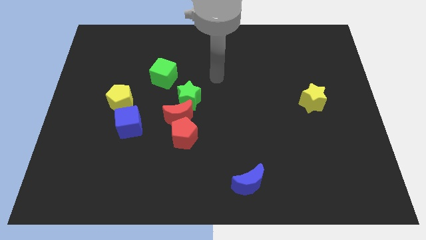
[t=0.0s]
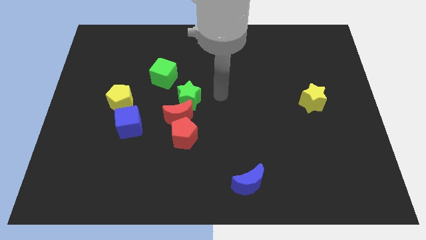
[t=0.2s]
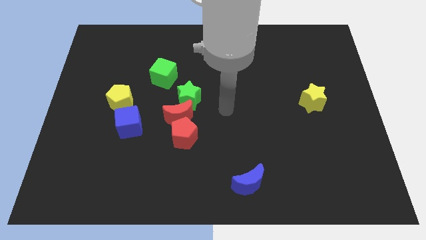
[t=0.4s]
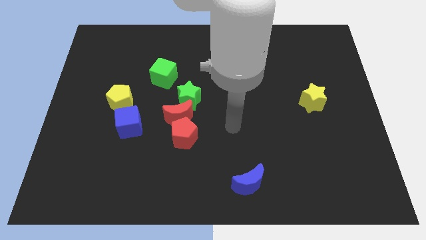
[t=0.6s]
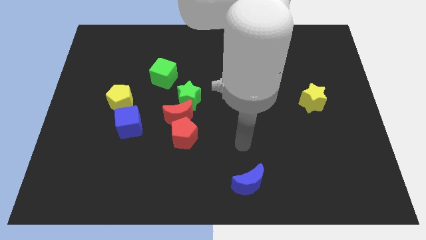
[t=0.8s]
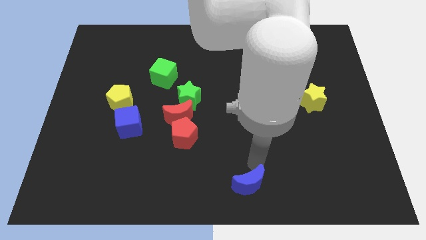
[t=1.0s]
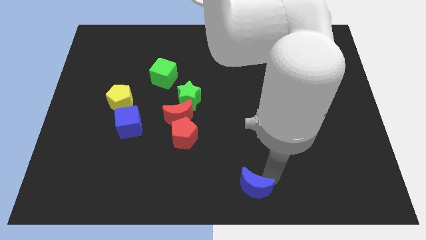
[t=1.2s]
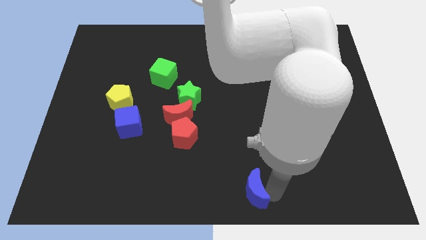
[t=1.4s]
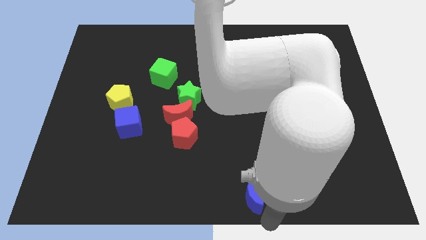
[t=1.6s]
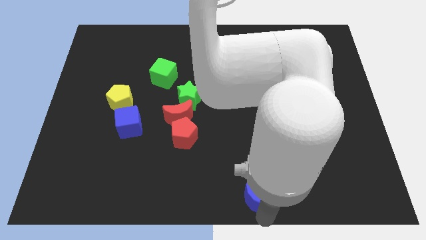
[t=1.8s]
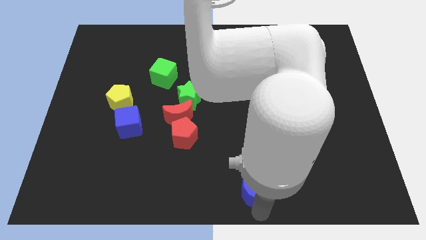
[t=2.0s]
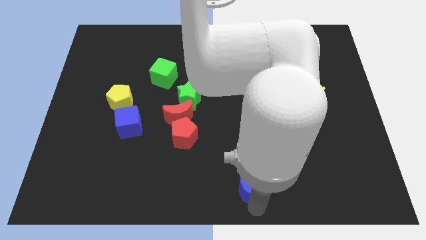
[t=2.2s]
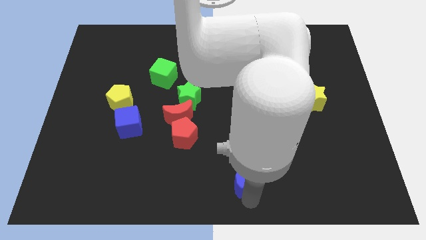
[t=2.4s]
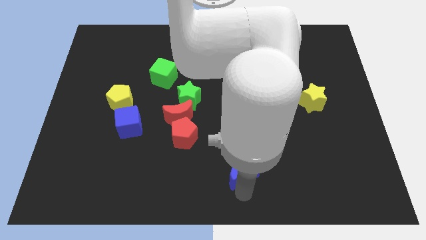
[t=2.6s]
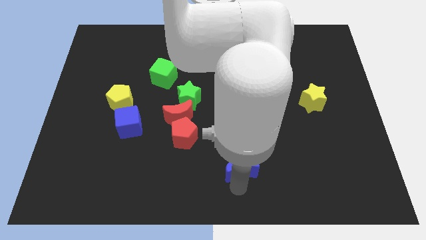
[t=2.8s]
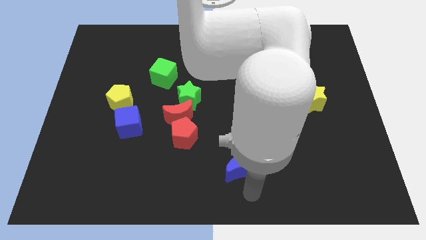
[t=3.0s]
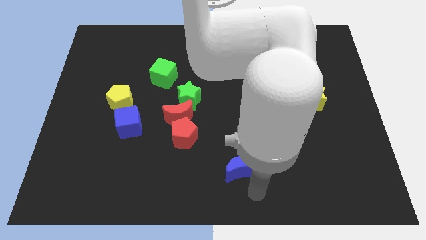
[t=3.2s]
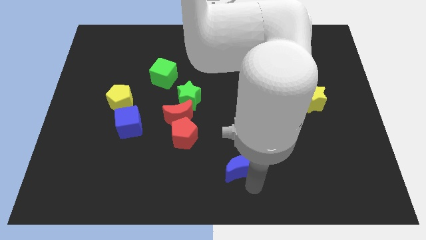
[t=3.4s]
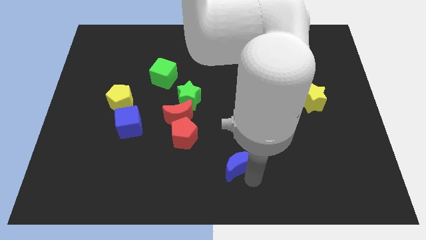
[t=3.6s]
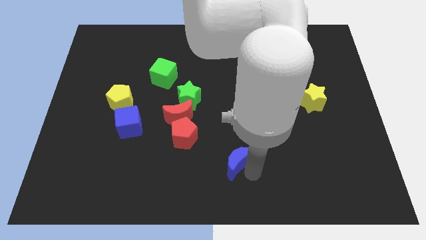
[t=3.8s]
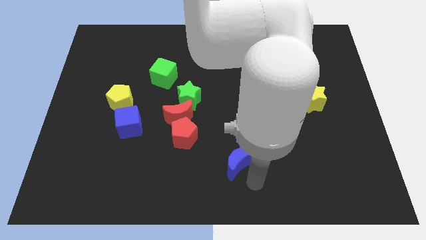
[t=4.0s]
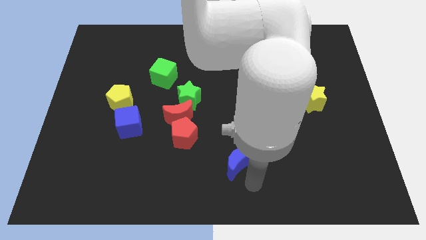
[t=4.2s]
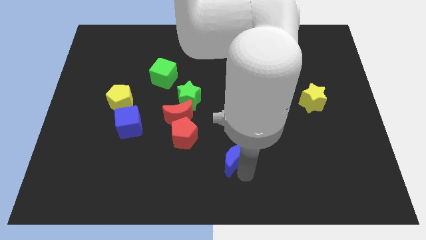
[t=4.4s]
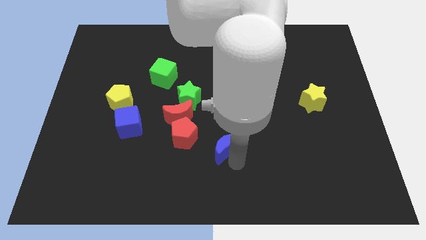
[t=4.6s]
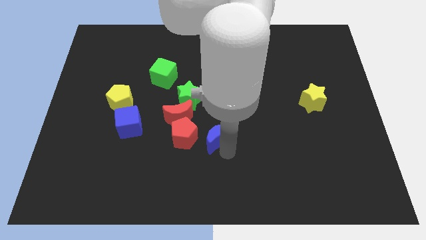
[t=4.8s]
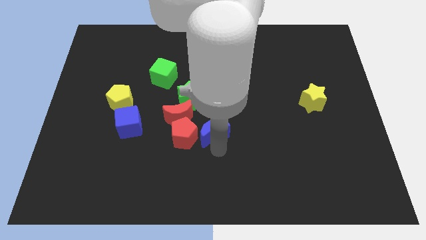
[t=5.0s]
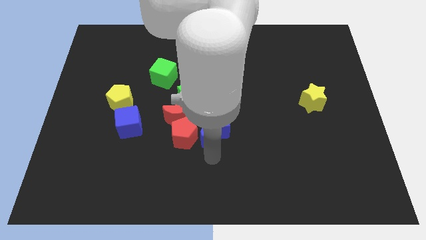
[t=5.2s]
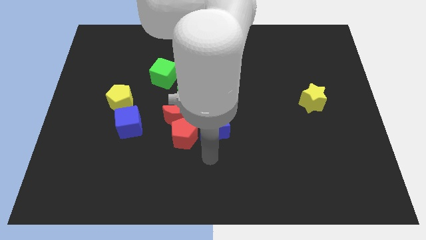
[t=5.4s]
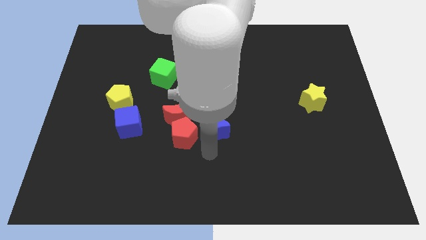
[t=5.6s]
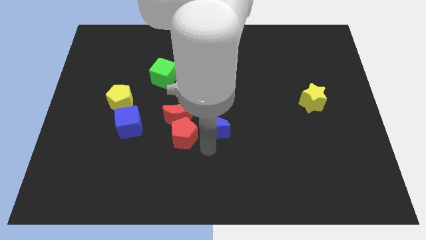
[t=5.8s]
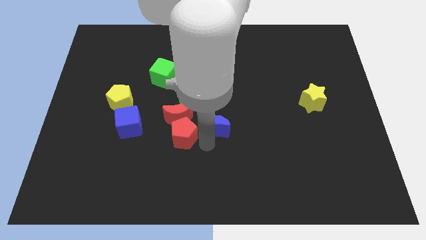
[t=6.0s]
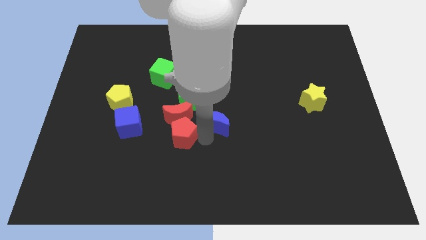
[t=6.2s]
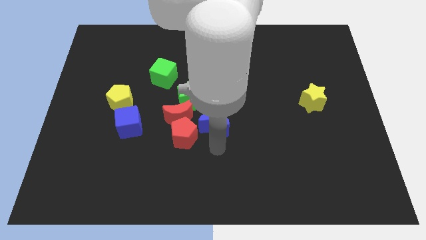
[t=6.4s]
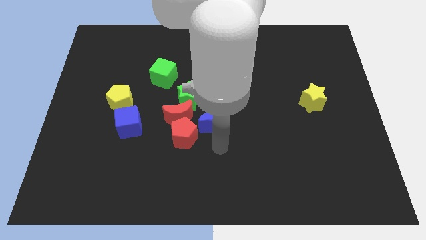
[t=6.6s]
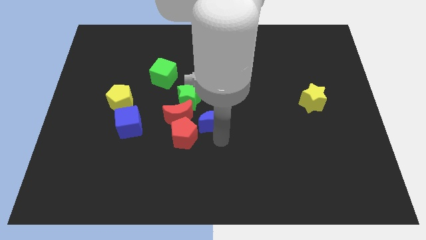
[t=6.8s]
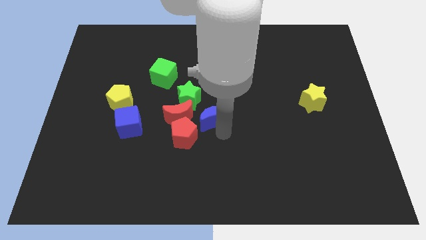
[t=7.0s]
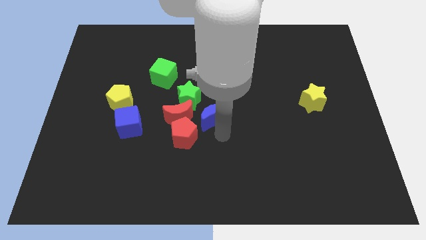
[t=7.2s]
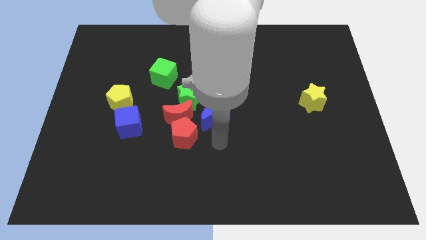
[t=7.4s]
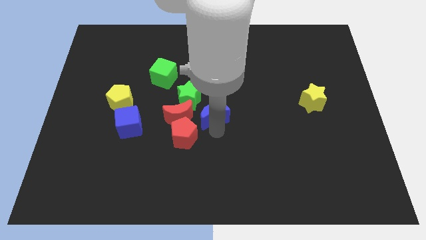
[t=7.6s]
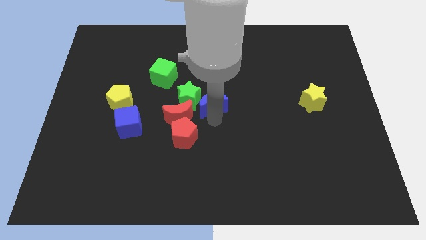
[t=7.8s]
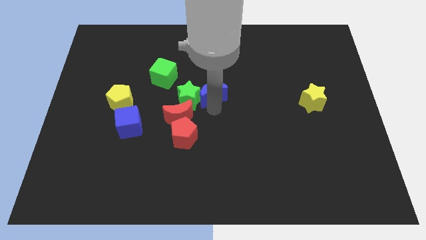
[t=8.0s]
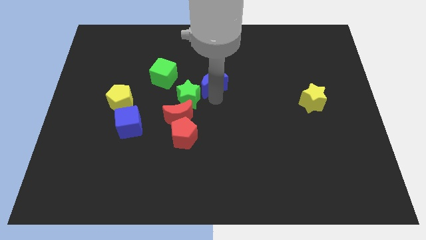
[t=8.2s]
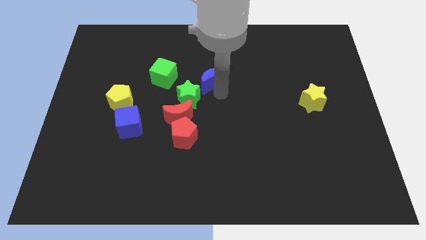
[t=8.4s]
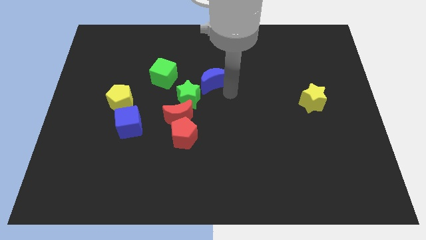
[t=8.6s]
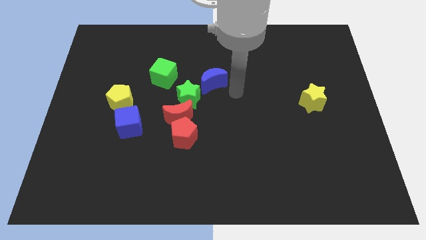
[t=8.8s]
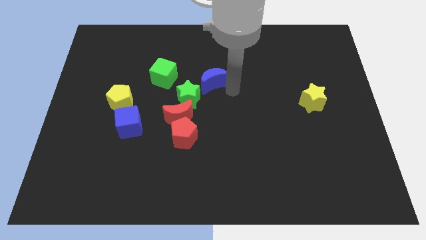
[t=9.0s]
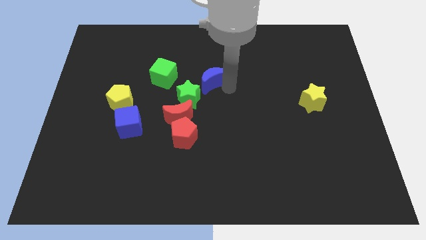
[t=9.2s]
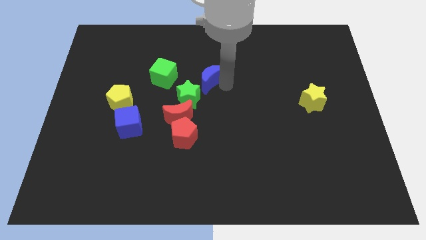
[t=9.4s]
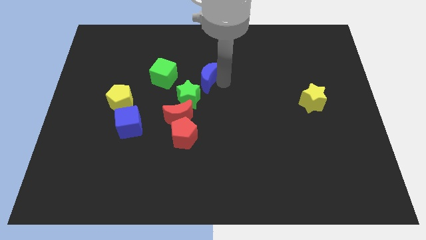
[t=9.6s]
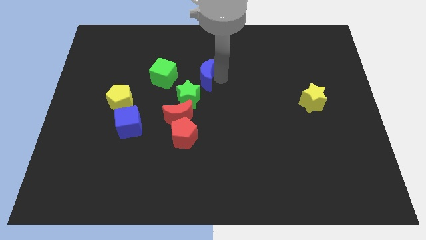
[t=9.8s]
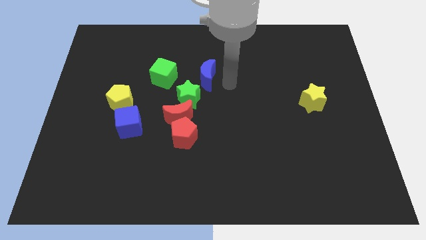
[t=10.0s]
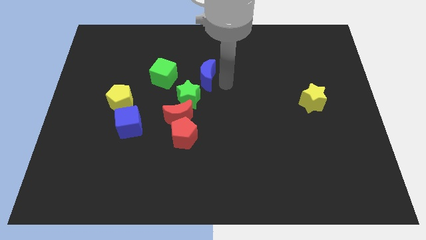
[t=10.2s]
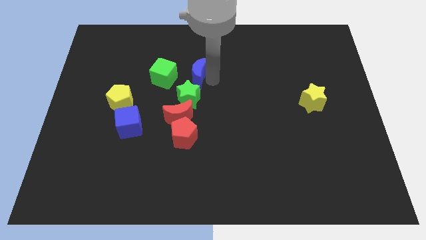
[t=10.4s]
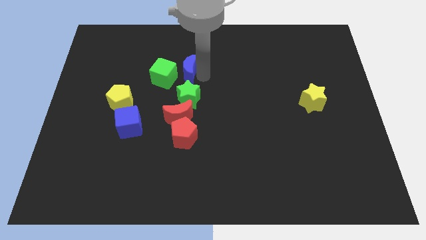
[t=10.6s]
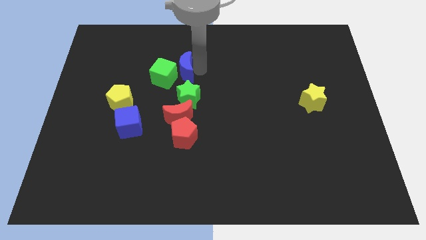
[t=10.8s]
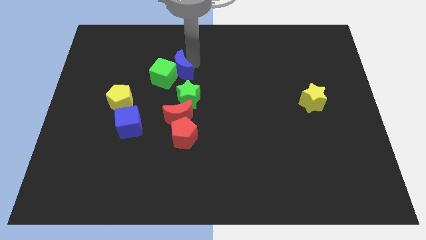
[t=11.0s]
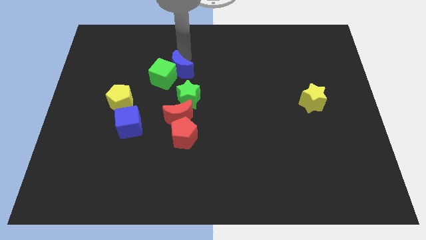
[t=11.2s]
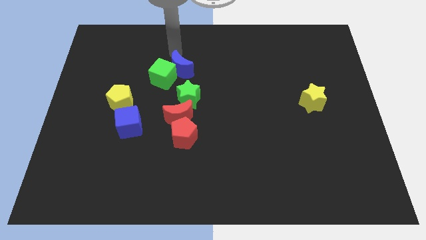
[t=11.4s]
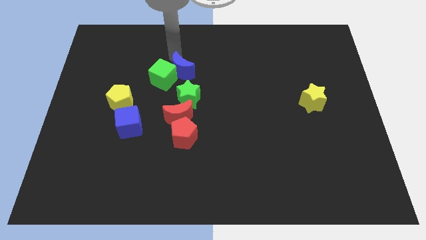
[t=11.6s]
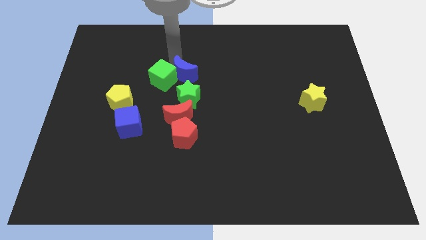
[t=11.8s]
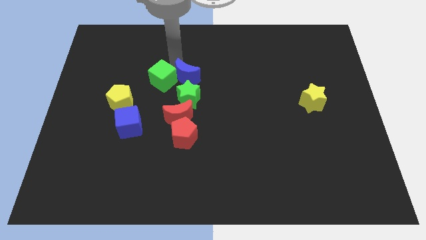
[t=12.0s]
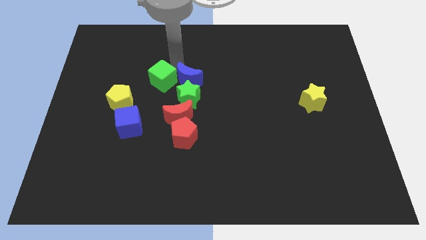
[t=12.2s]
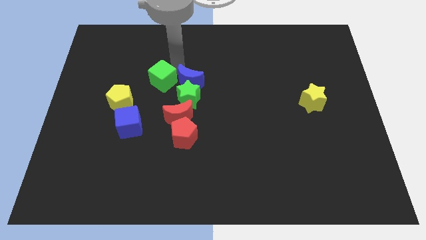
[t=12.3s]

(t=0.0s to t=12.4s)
put the blue moon to the top side of the red pentagon
